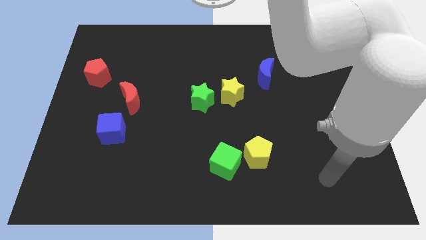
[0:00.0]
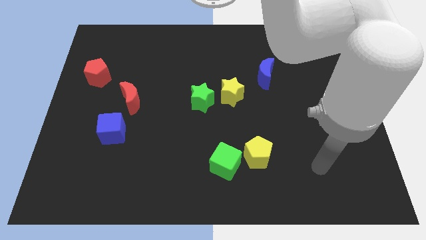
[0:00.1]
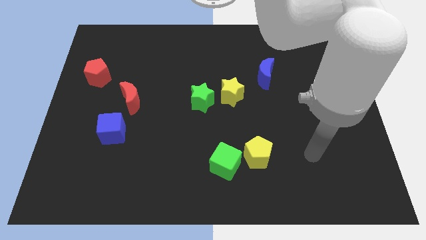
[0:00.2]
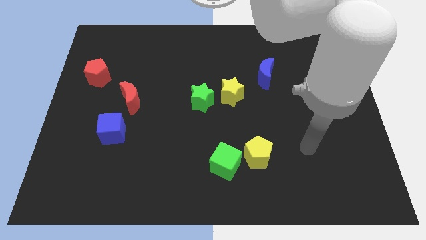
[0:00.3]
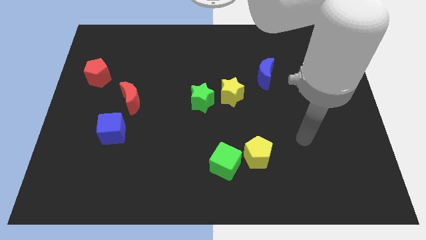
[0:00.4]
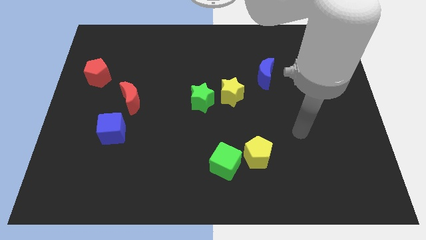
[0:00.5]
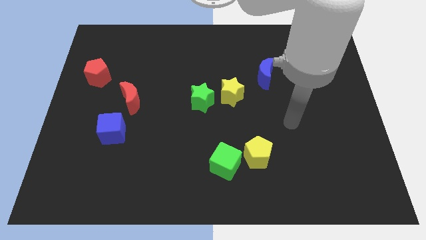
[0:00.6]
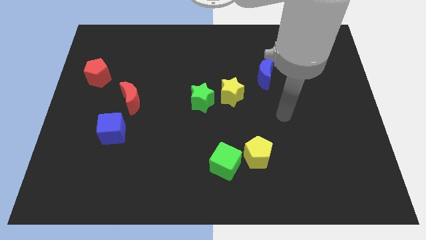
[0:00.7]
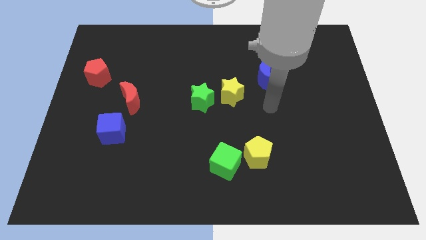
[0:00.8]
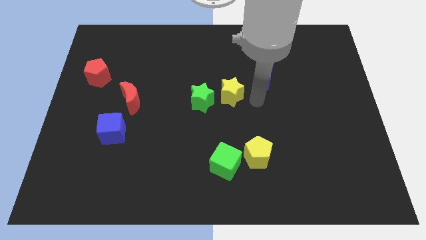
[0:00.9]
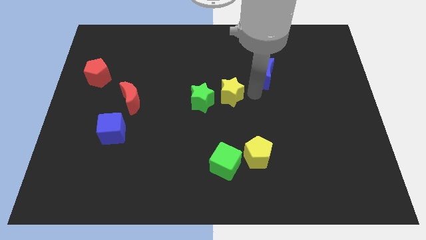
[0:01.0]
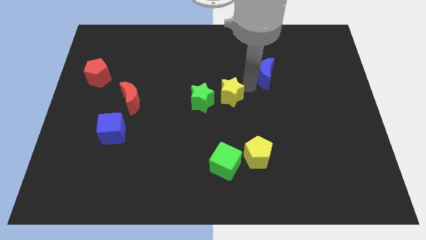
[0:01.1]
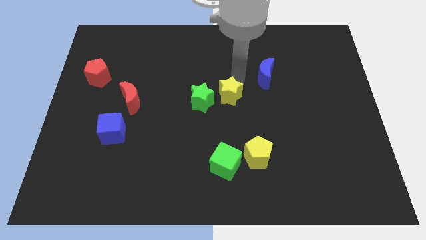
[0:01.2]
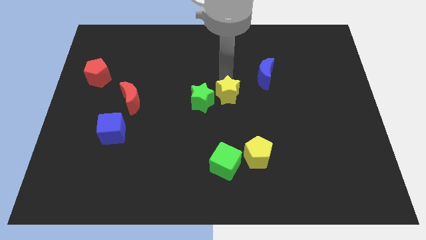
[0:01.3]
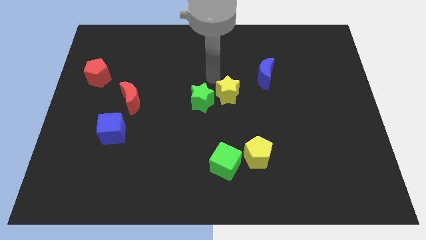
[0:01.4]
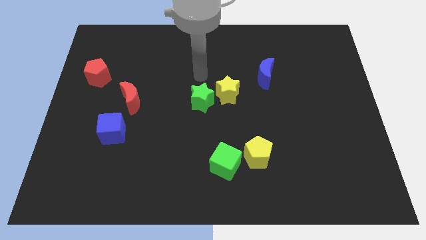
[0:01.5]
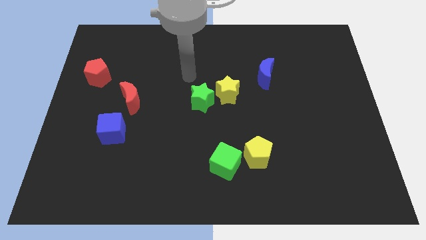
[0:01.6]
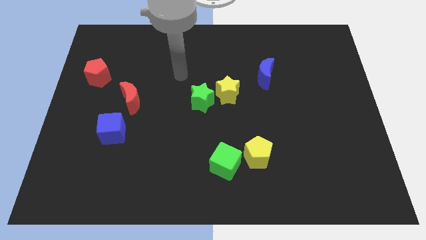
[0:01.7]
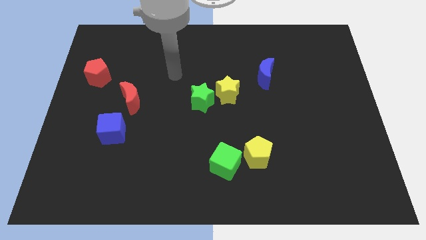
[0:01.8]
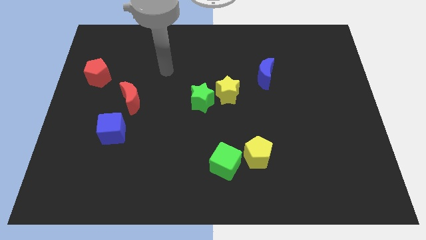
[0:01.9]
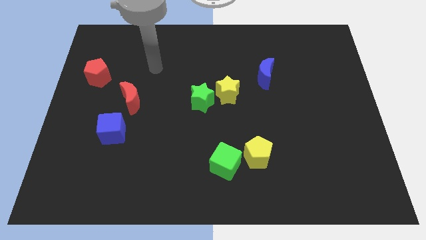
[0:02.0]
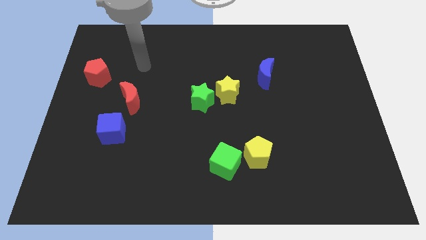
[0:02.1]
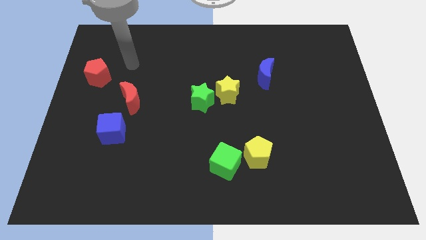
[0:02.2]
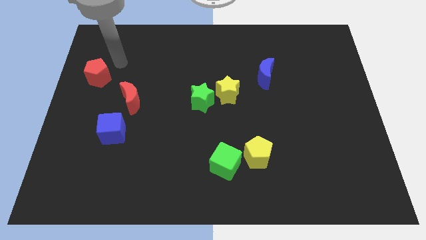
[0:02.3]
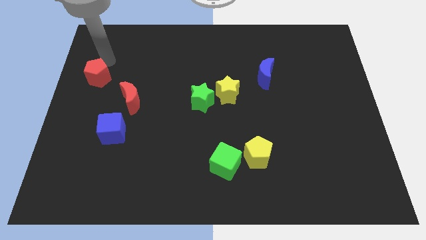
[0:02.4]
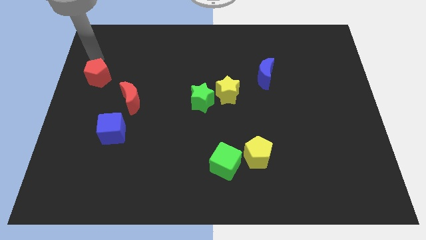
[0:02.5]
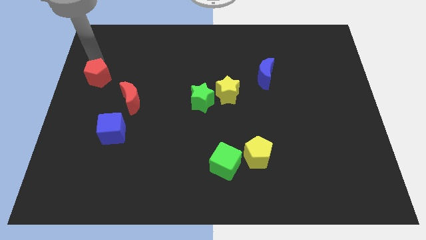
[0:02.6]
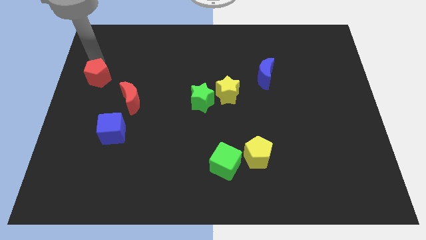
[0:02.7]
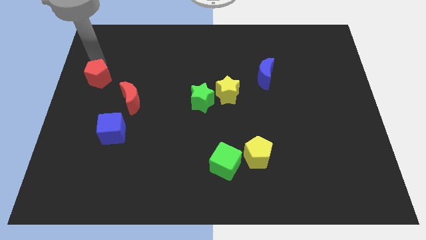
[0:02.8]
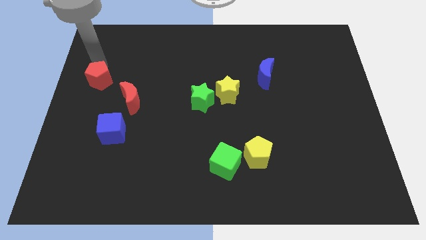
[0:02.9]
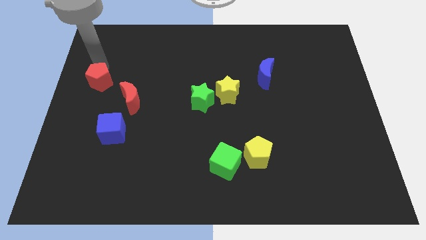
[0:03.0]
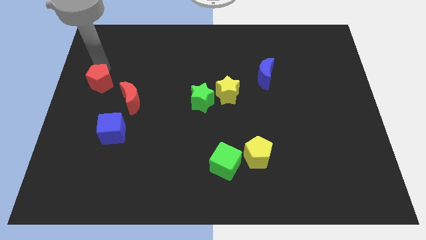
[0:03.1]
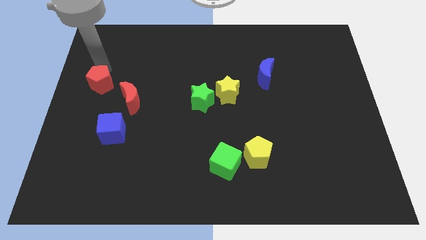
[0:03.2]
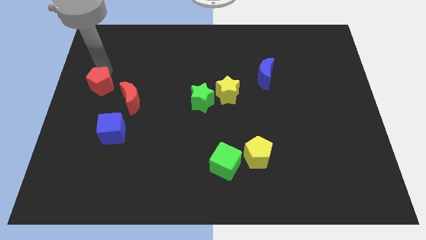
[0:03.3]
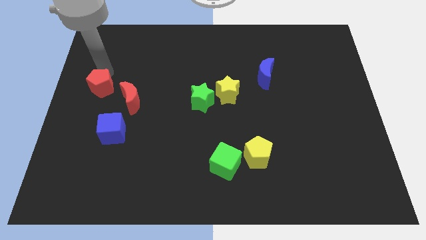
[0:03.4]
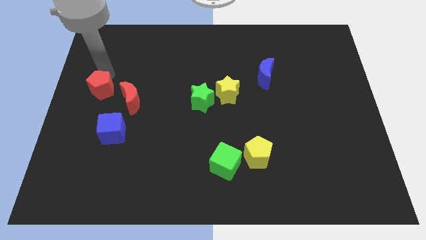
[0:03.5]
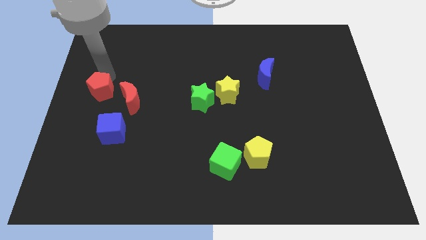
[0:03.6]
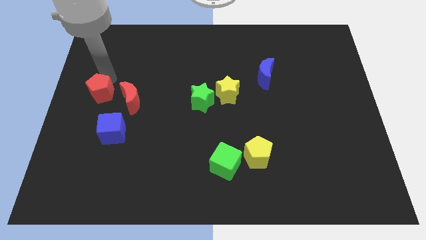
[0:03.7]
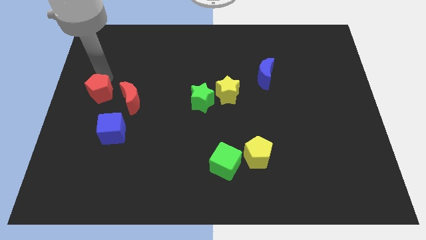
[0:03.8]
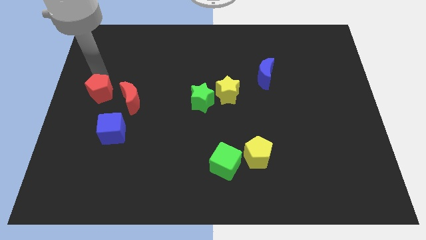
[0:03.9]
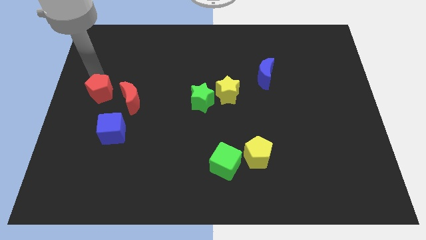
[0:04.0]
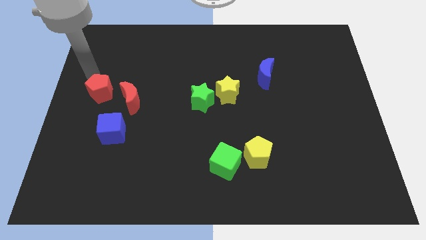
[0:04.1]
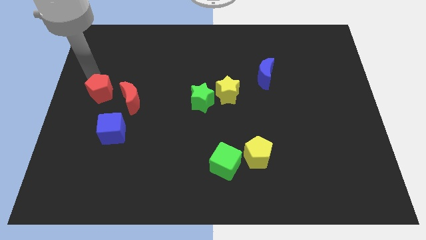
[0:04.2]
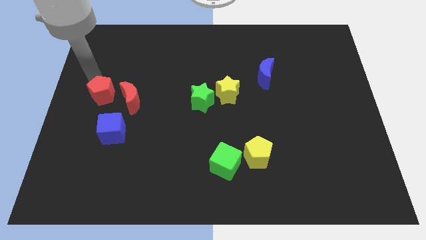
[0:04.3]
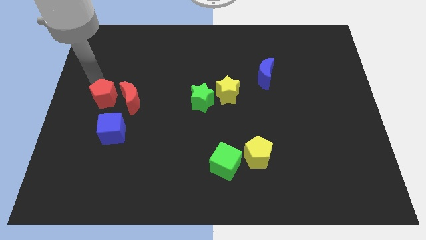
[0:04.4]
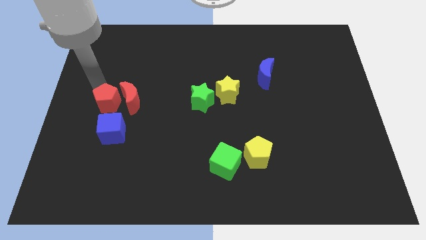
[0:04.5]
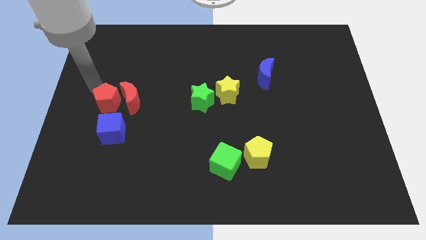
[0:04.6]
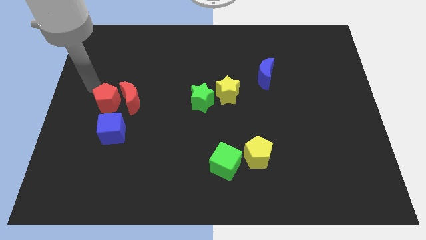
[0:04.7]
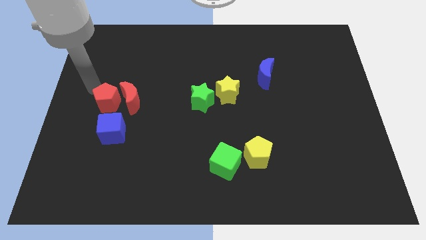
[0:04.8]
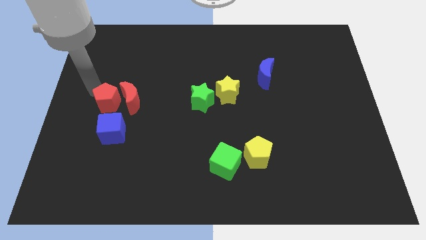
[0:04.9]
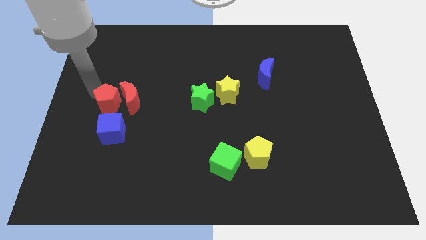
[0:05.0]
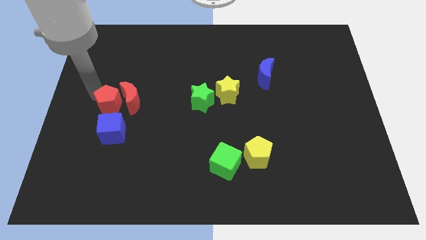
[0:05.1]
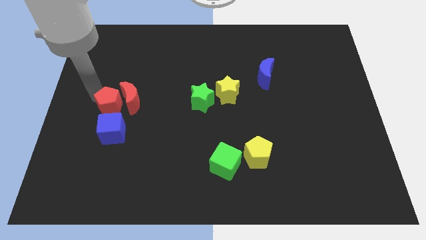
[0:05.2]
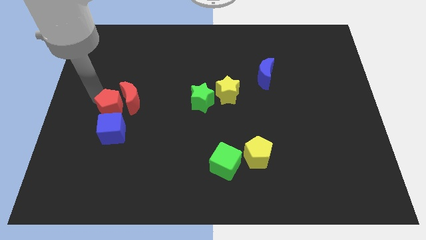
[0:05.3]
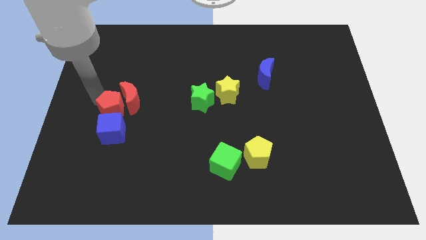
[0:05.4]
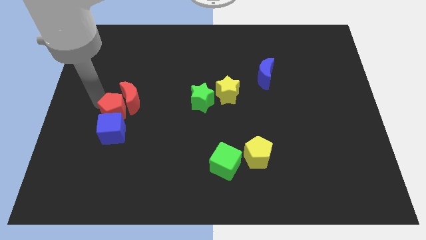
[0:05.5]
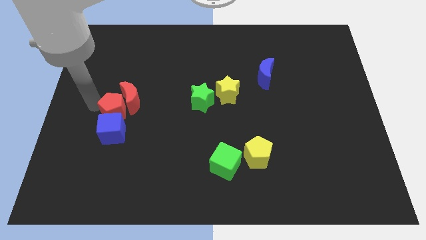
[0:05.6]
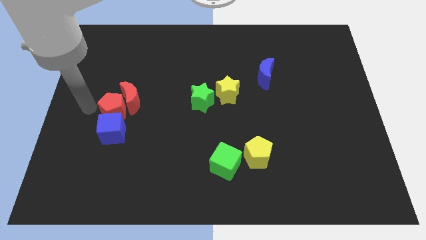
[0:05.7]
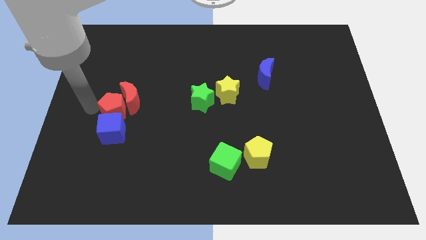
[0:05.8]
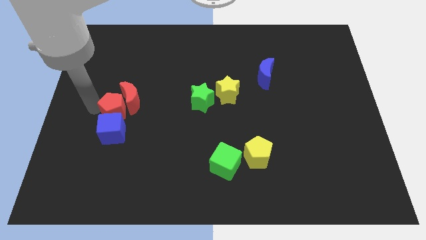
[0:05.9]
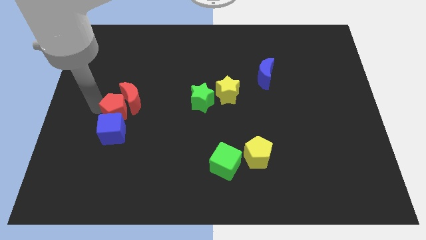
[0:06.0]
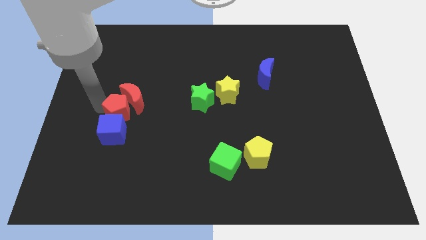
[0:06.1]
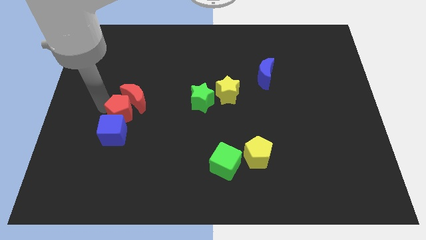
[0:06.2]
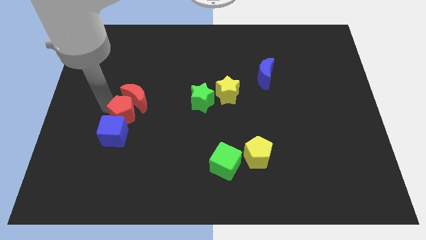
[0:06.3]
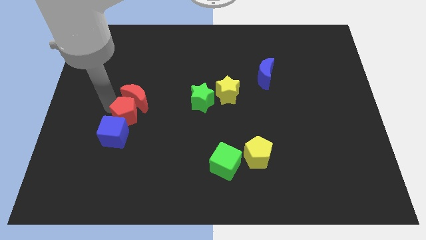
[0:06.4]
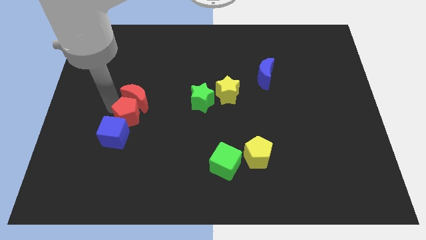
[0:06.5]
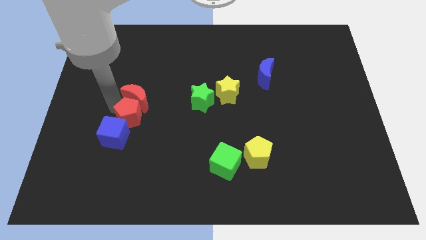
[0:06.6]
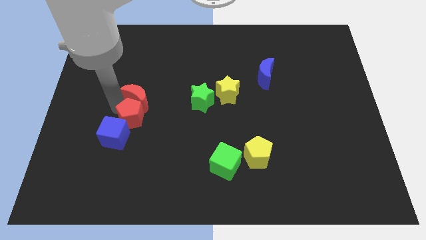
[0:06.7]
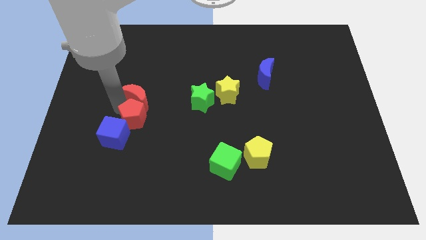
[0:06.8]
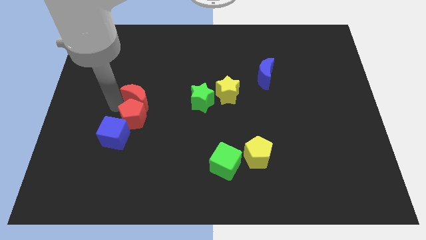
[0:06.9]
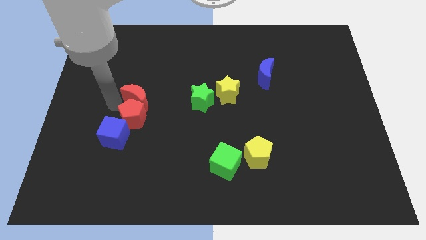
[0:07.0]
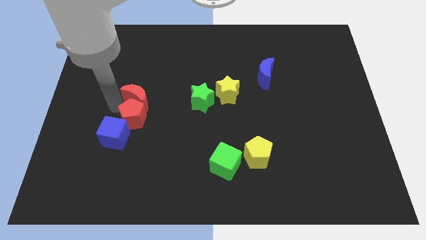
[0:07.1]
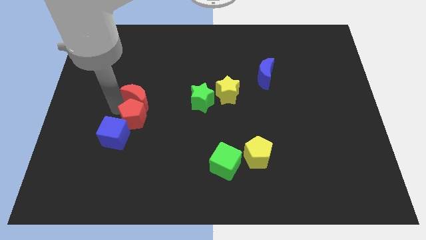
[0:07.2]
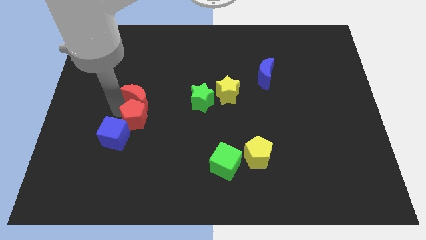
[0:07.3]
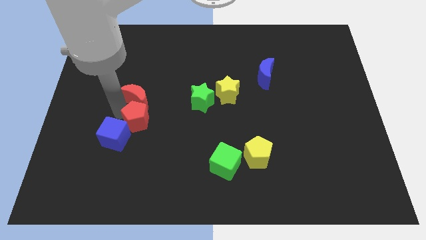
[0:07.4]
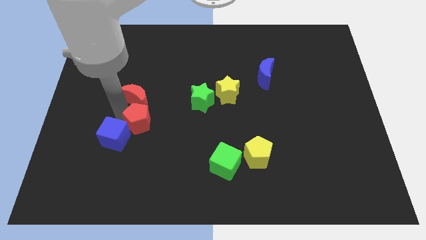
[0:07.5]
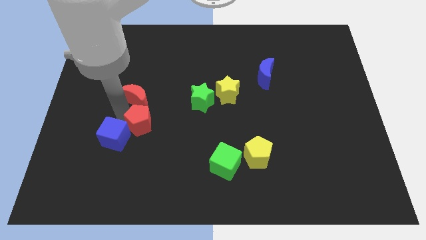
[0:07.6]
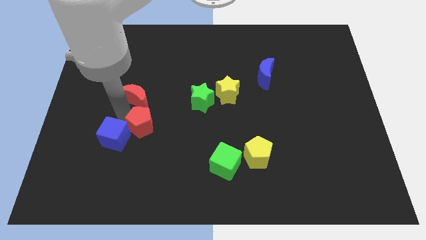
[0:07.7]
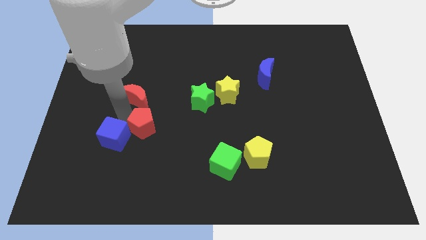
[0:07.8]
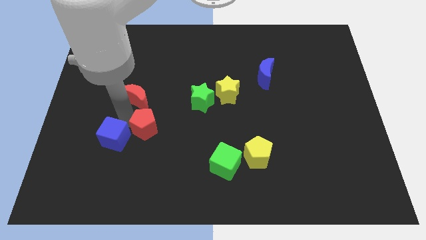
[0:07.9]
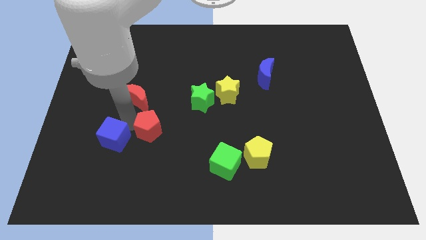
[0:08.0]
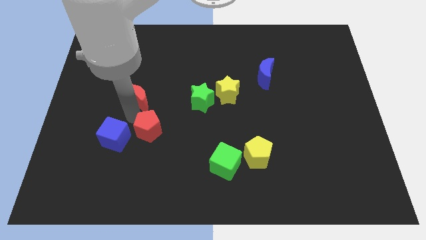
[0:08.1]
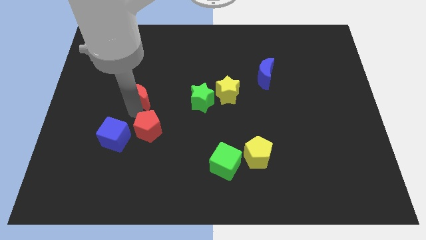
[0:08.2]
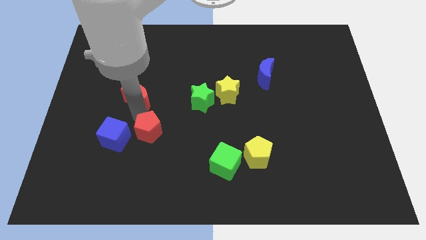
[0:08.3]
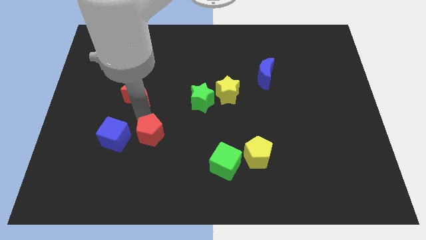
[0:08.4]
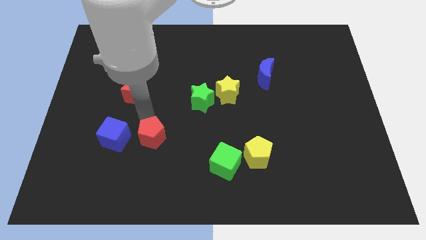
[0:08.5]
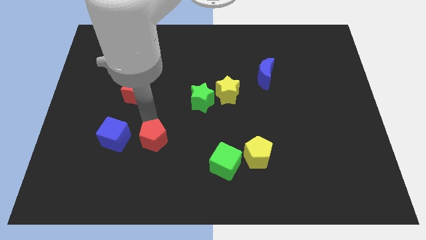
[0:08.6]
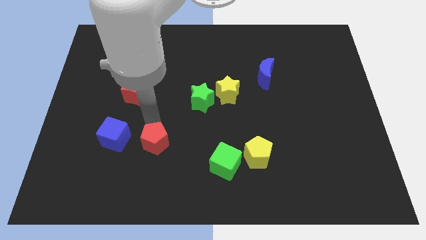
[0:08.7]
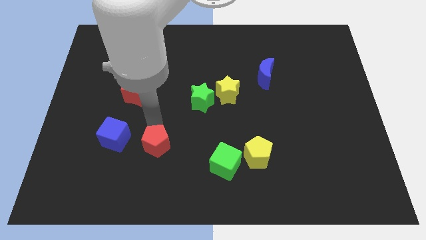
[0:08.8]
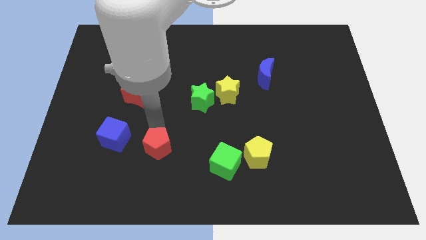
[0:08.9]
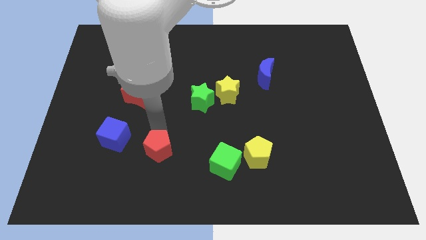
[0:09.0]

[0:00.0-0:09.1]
put the red pentagon to the left of the green cube
